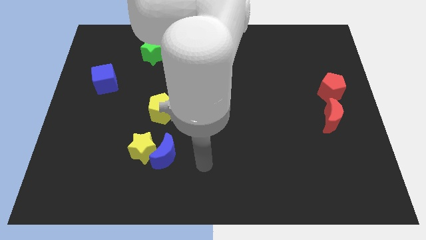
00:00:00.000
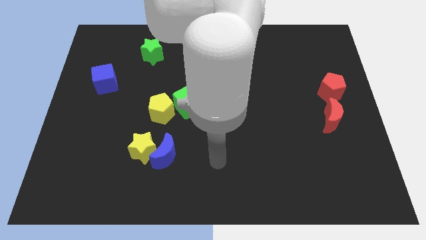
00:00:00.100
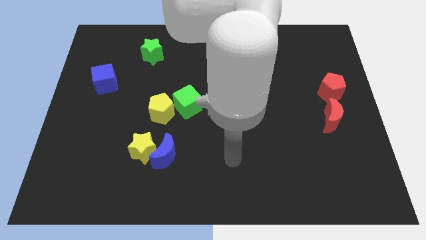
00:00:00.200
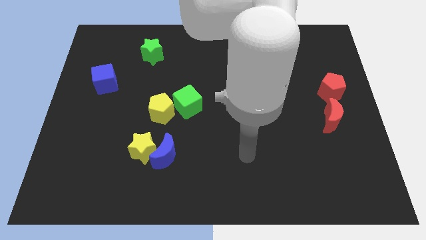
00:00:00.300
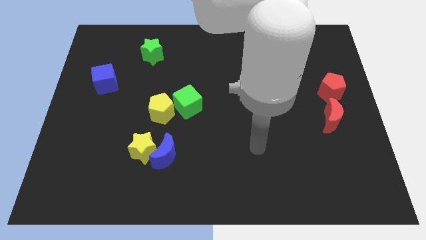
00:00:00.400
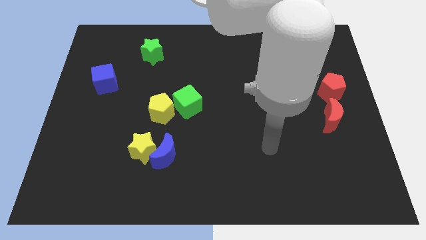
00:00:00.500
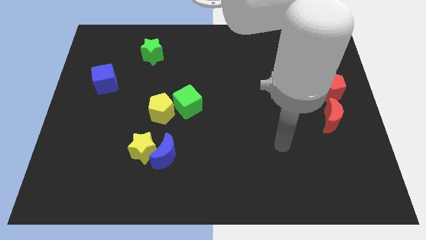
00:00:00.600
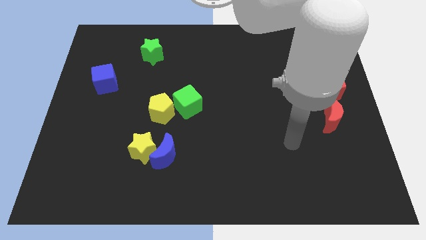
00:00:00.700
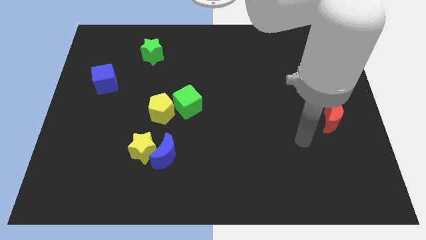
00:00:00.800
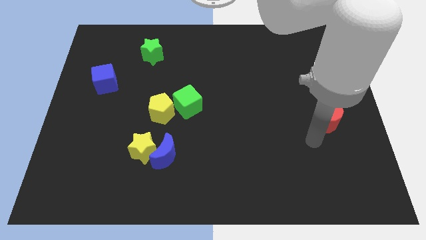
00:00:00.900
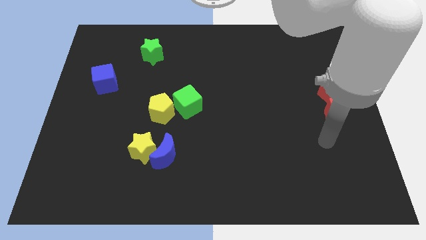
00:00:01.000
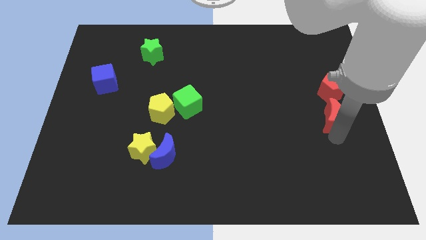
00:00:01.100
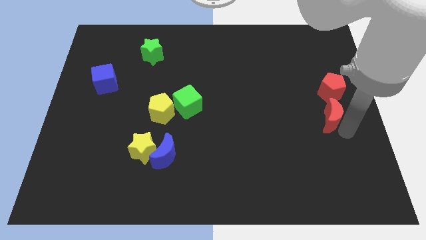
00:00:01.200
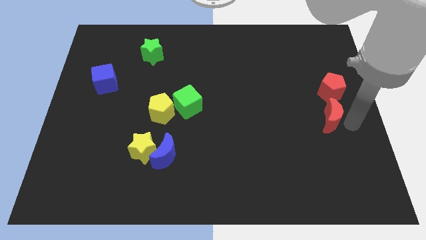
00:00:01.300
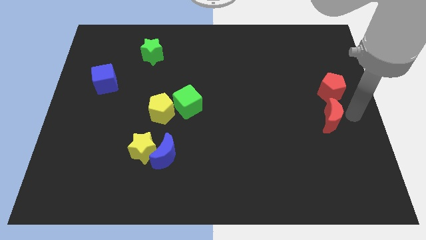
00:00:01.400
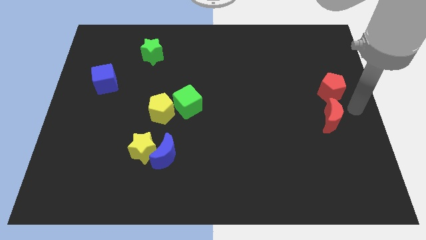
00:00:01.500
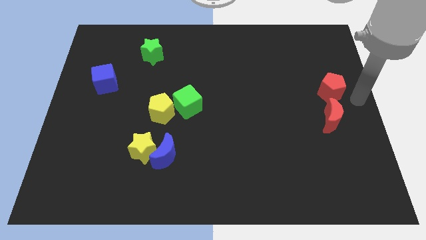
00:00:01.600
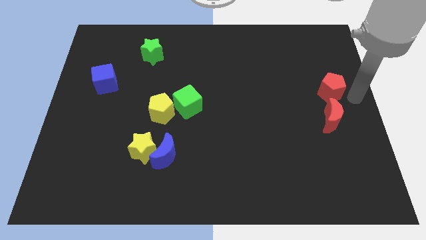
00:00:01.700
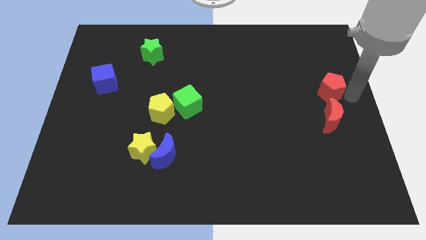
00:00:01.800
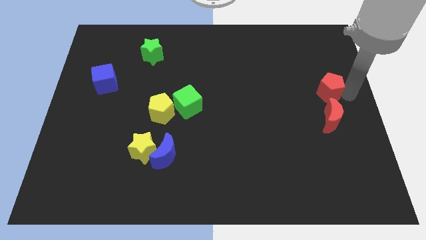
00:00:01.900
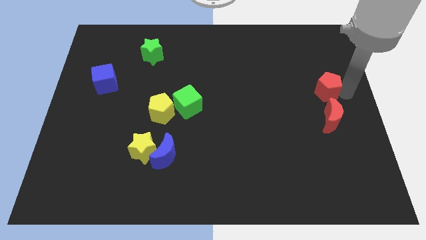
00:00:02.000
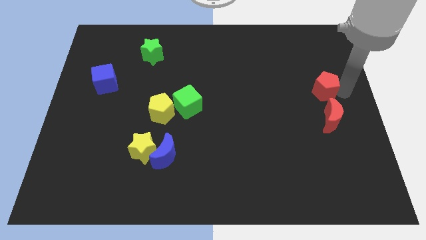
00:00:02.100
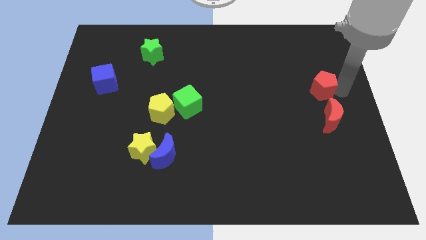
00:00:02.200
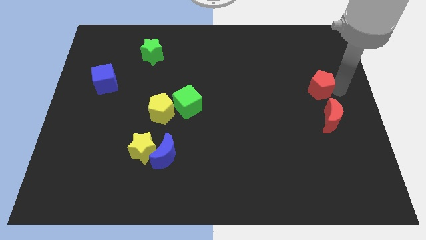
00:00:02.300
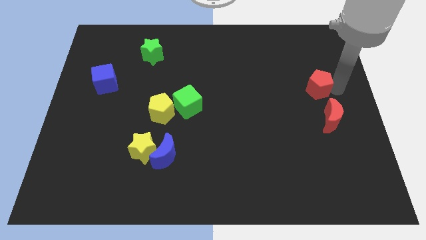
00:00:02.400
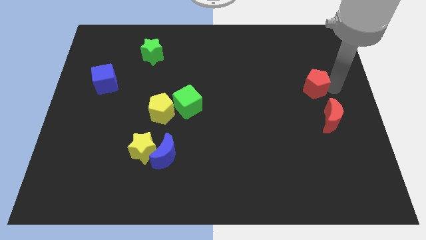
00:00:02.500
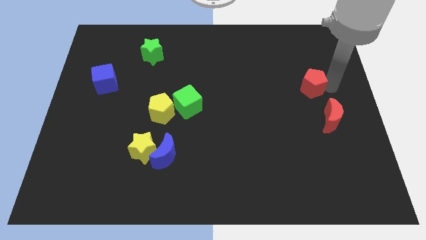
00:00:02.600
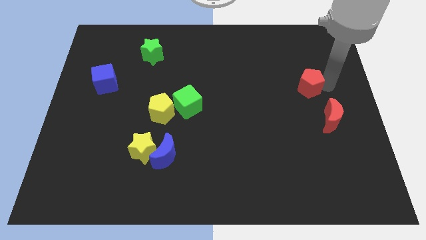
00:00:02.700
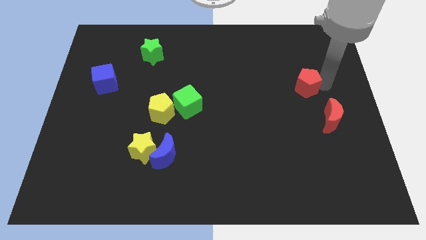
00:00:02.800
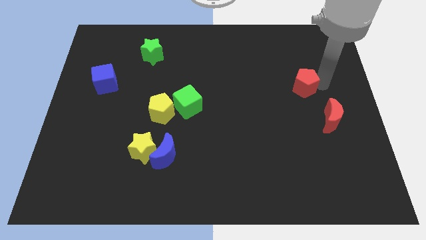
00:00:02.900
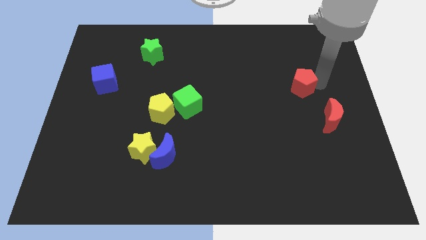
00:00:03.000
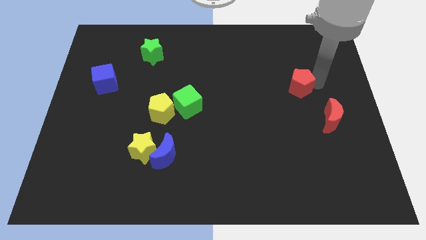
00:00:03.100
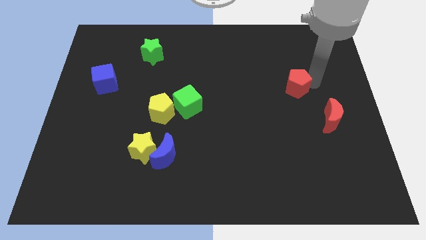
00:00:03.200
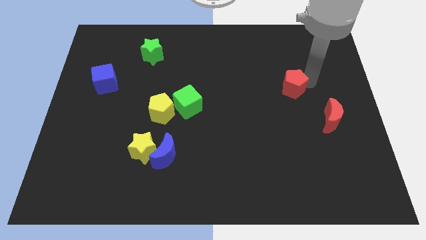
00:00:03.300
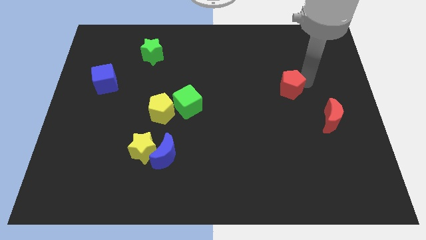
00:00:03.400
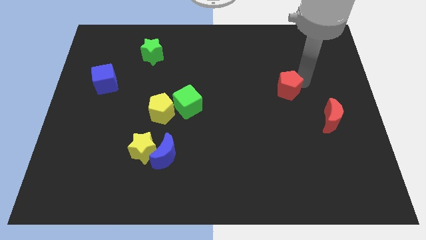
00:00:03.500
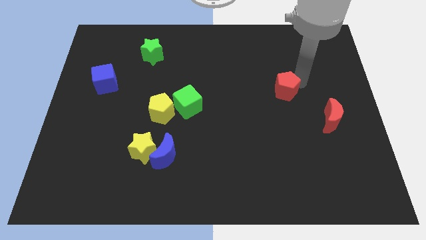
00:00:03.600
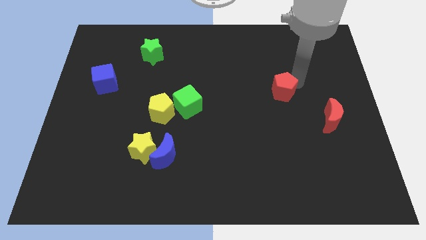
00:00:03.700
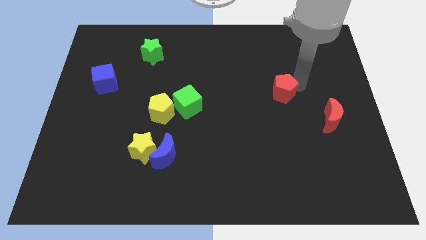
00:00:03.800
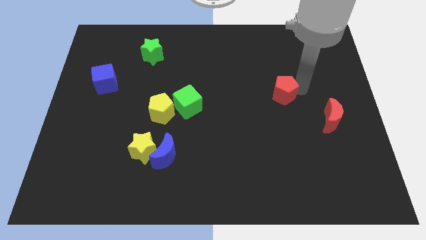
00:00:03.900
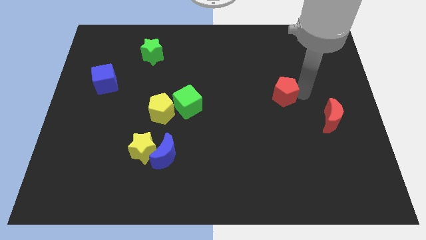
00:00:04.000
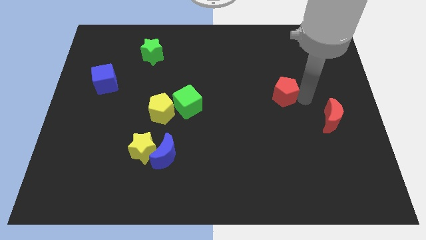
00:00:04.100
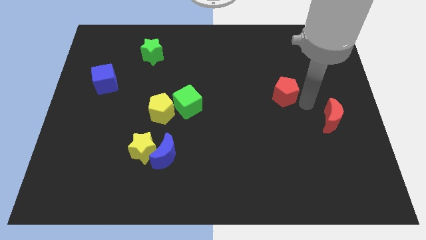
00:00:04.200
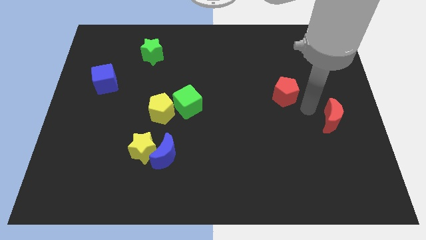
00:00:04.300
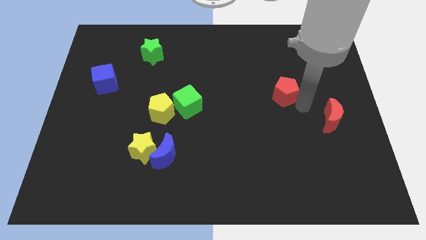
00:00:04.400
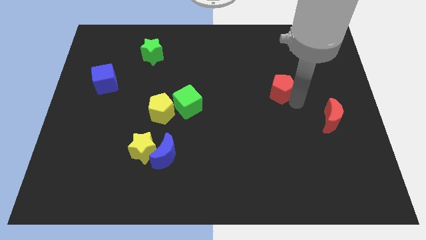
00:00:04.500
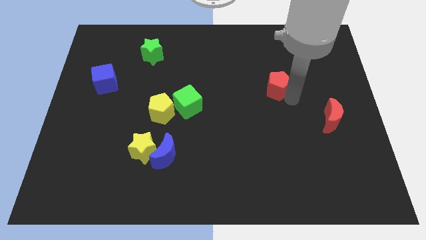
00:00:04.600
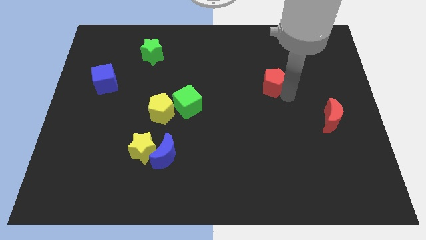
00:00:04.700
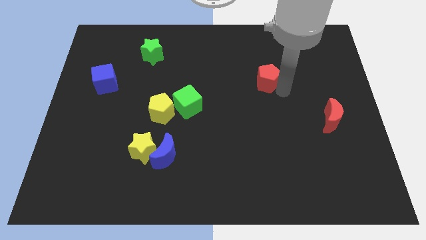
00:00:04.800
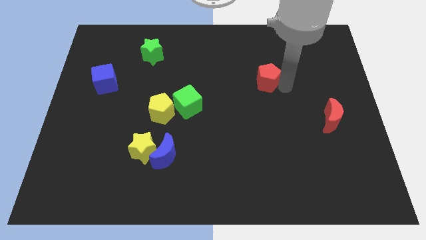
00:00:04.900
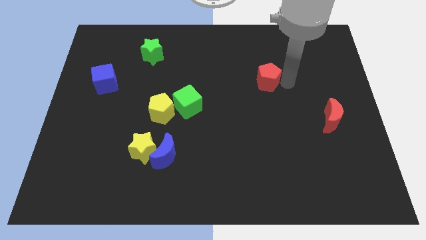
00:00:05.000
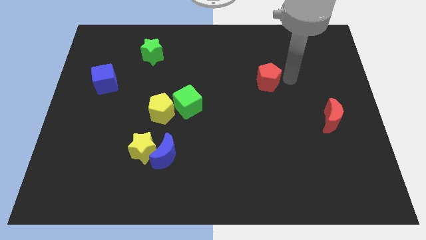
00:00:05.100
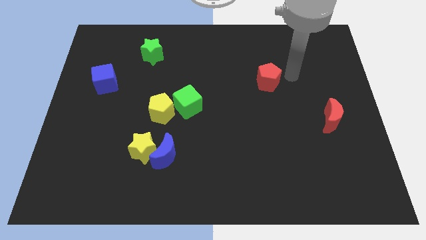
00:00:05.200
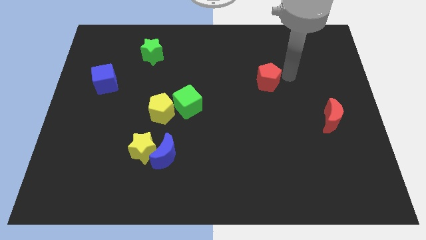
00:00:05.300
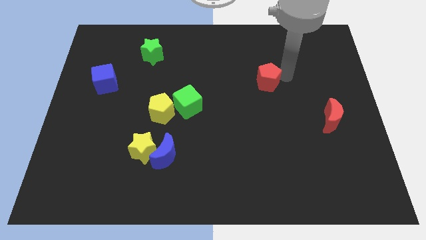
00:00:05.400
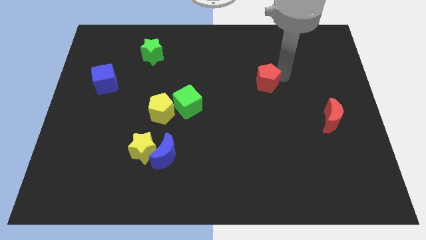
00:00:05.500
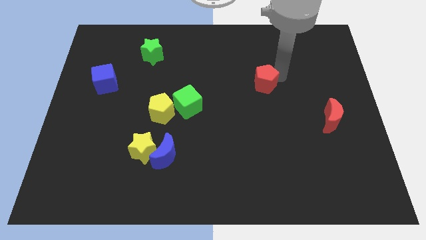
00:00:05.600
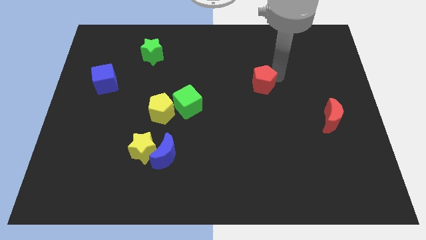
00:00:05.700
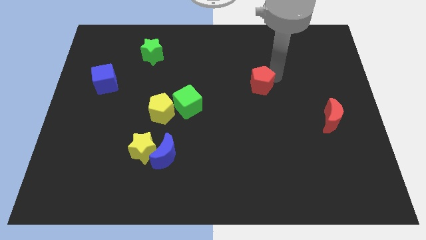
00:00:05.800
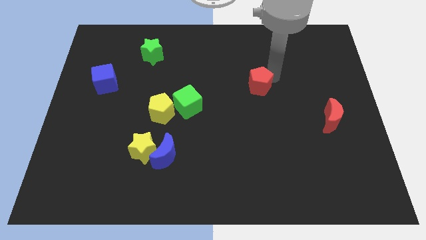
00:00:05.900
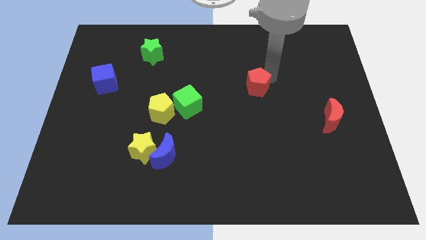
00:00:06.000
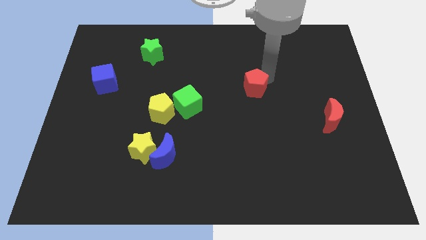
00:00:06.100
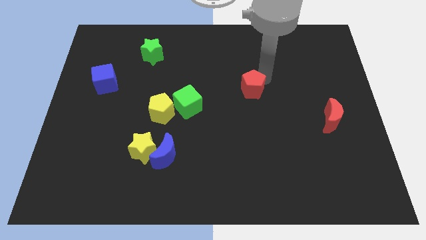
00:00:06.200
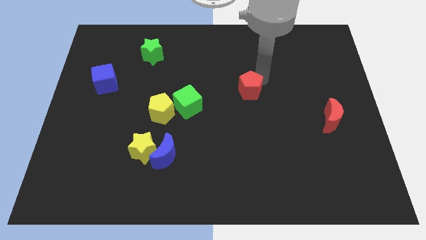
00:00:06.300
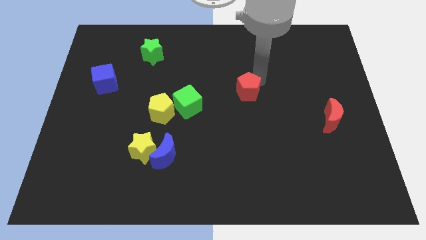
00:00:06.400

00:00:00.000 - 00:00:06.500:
push the red pentagon to the left

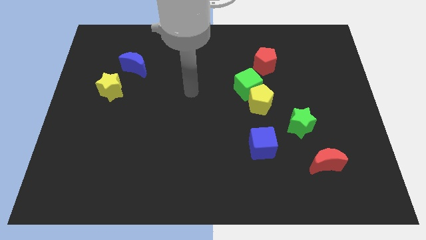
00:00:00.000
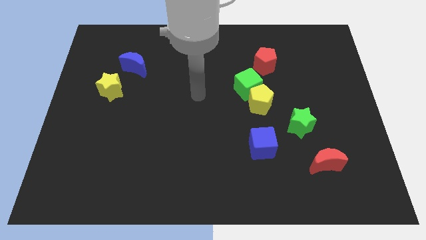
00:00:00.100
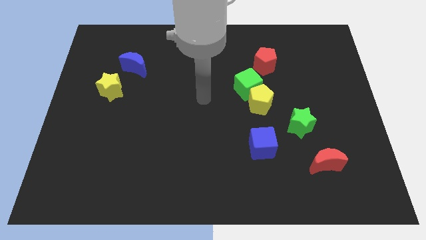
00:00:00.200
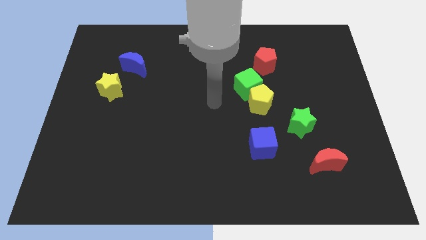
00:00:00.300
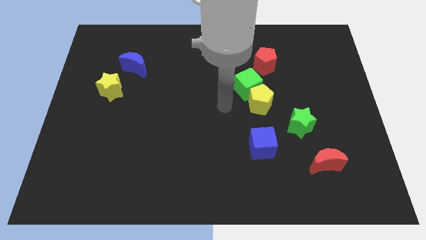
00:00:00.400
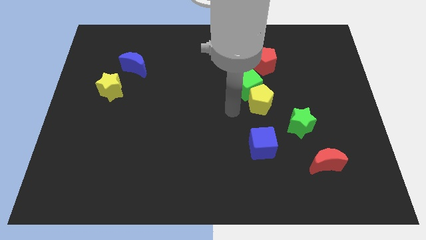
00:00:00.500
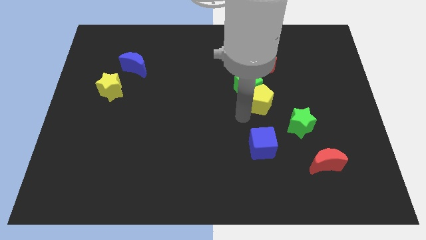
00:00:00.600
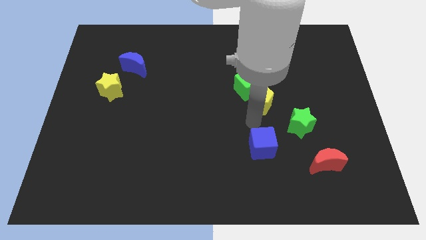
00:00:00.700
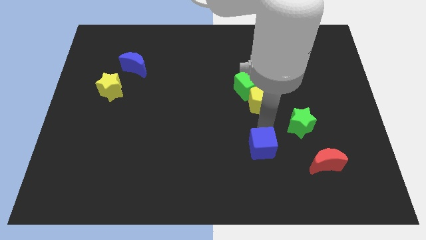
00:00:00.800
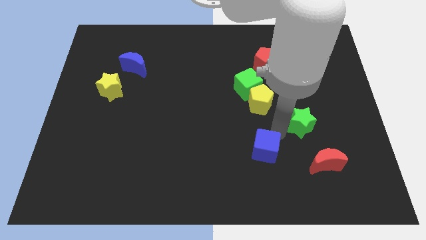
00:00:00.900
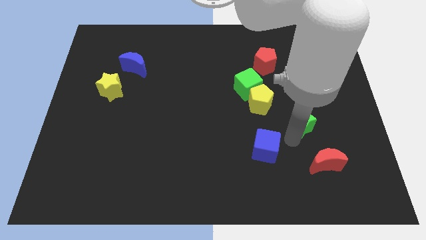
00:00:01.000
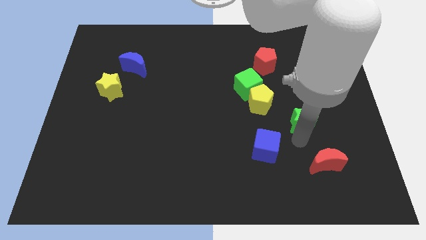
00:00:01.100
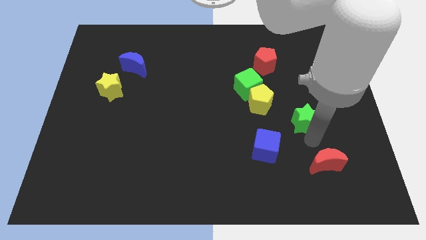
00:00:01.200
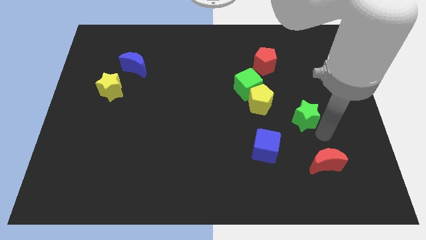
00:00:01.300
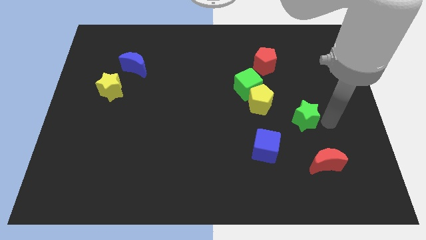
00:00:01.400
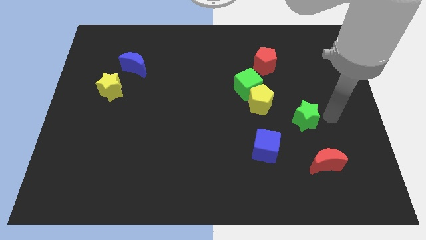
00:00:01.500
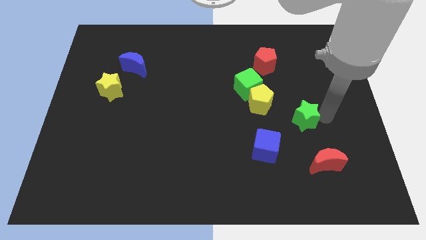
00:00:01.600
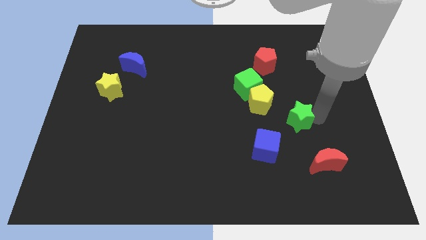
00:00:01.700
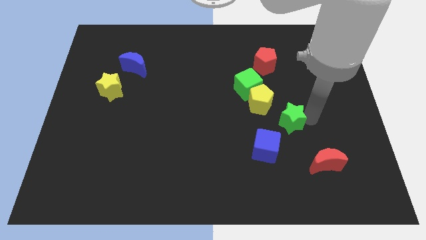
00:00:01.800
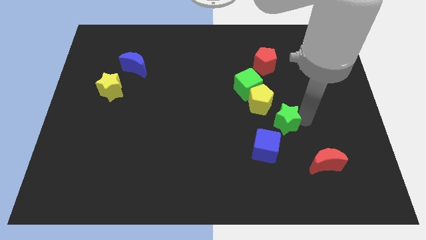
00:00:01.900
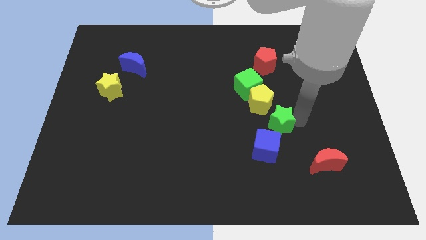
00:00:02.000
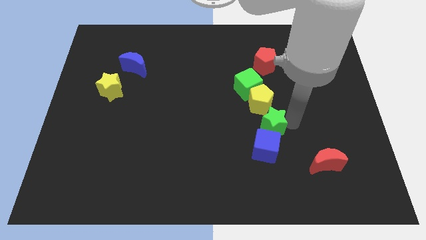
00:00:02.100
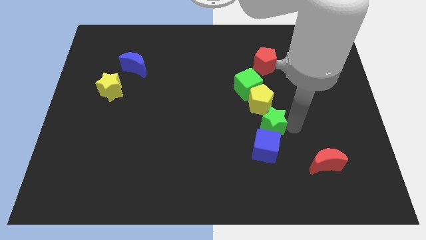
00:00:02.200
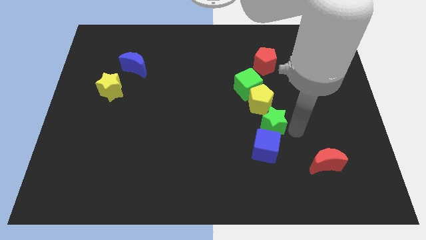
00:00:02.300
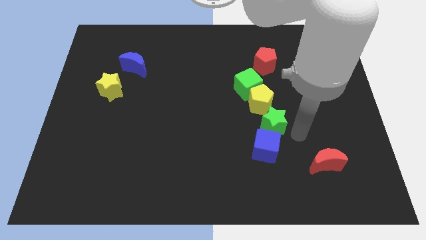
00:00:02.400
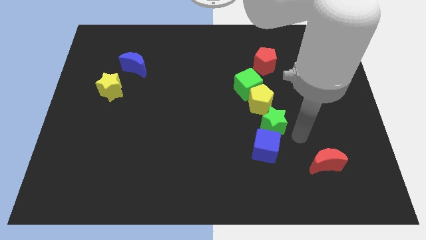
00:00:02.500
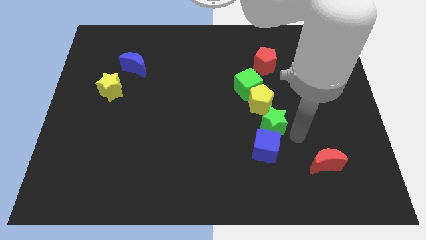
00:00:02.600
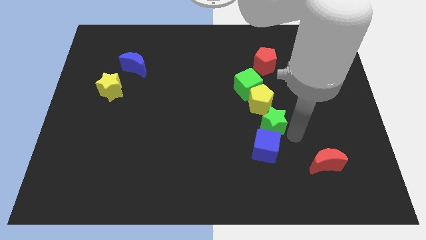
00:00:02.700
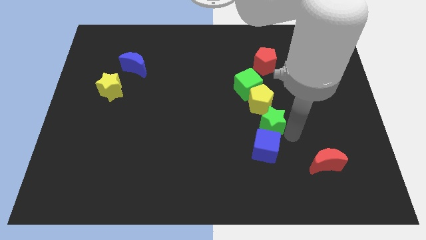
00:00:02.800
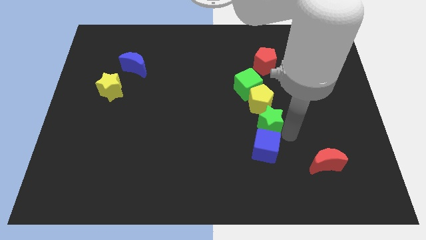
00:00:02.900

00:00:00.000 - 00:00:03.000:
slightly move the green star left
